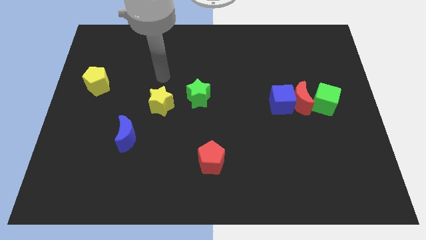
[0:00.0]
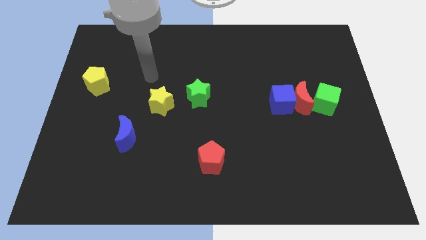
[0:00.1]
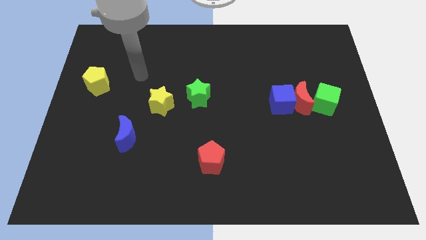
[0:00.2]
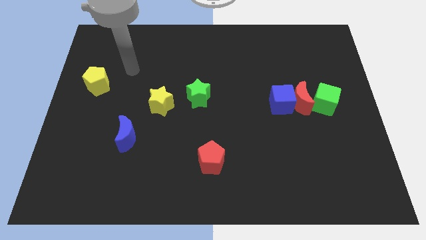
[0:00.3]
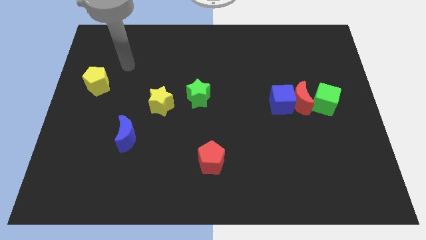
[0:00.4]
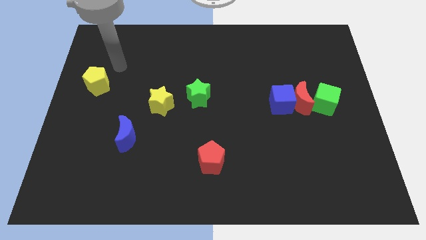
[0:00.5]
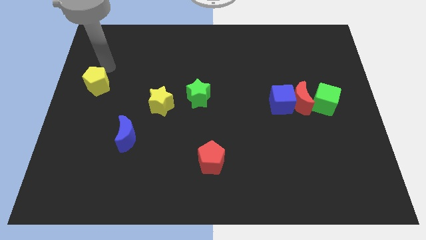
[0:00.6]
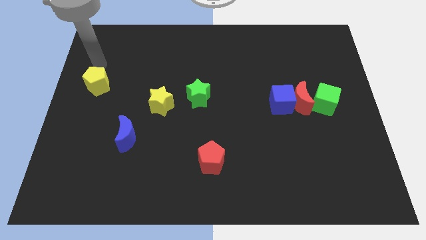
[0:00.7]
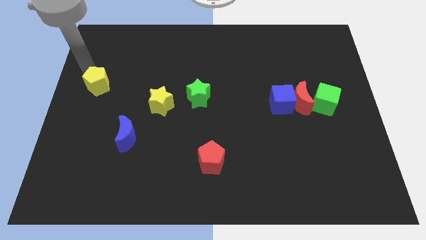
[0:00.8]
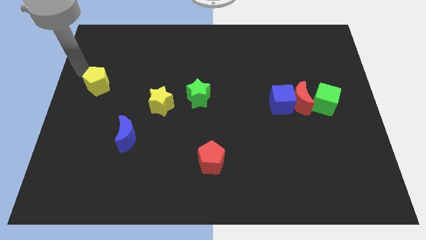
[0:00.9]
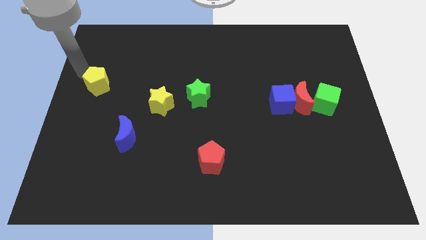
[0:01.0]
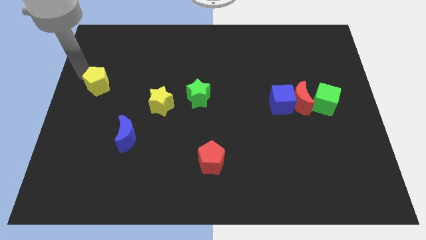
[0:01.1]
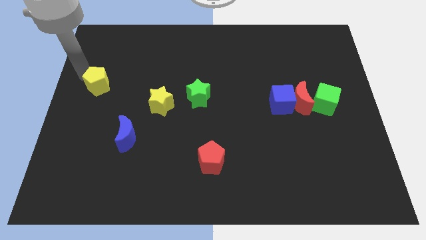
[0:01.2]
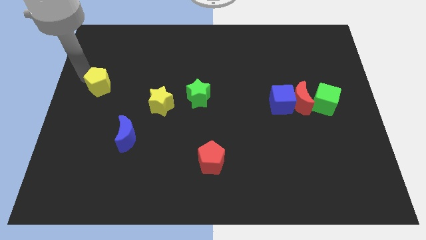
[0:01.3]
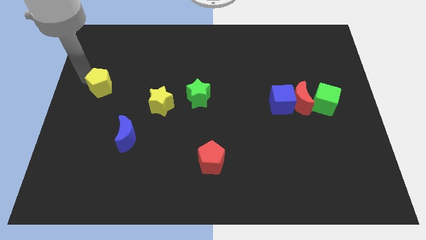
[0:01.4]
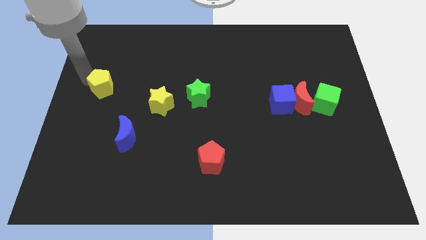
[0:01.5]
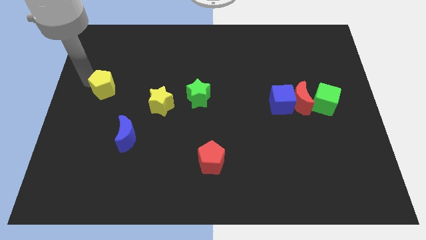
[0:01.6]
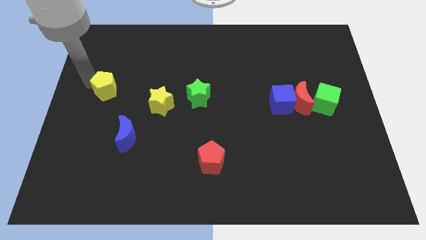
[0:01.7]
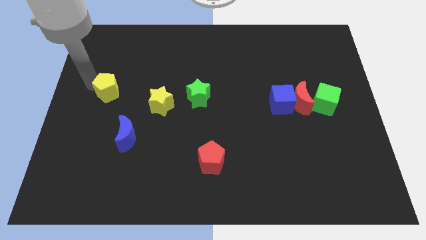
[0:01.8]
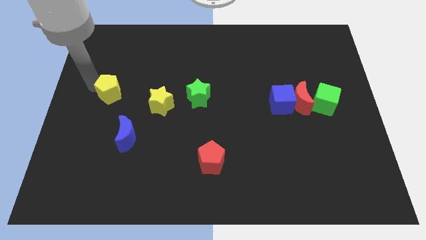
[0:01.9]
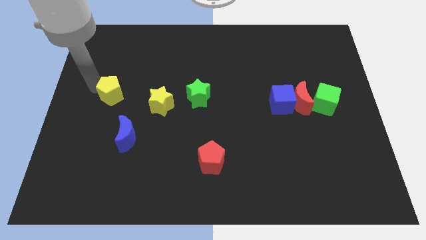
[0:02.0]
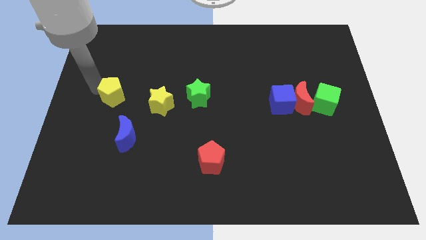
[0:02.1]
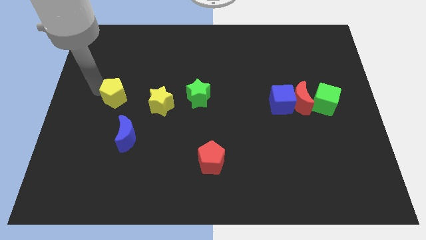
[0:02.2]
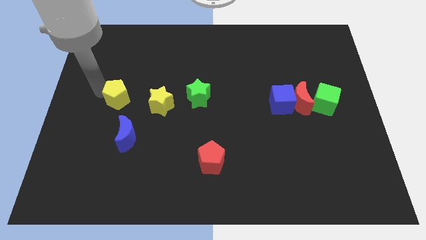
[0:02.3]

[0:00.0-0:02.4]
slide the yellow pentagon a little bit downwards and right diagonally

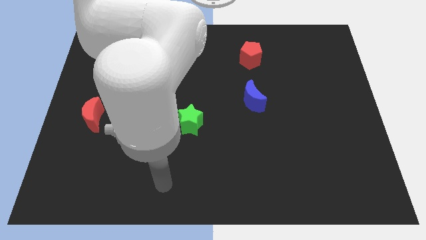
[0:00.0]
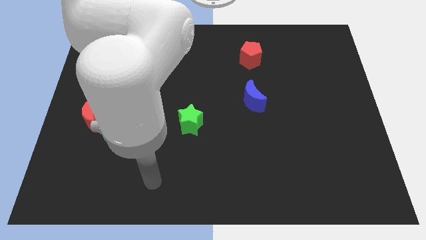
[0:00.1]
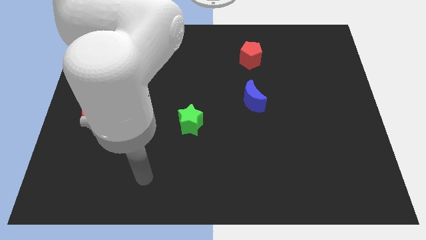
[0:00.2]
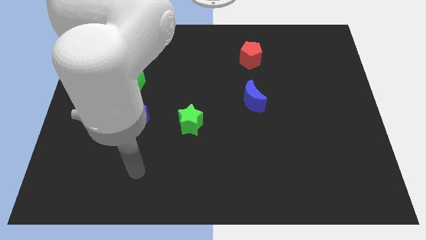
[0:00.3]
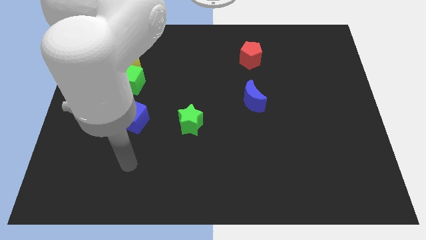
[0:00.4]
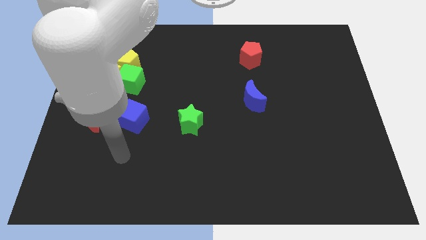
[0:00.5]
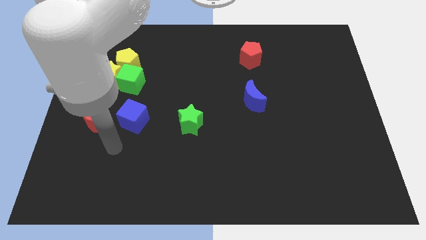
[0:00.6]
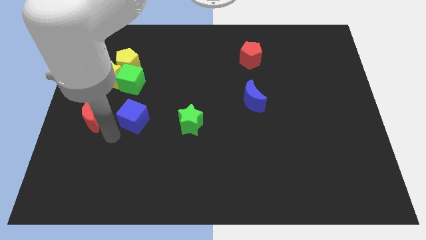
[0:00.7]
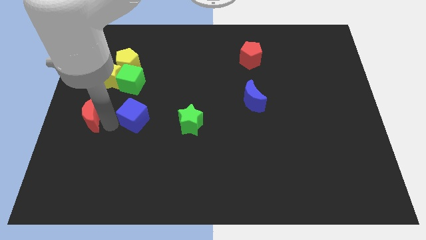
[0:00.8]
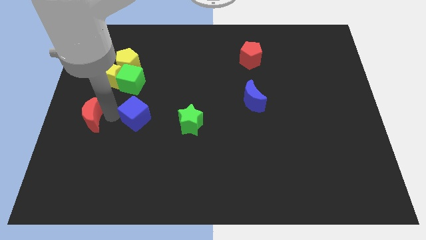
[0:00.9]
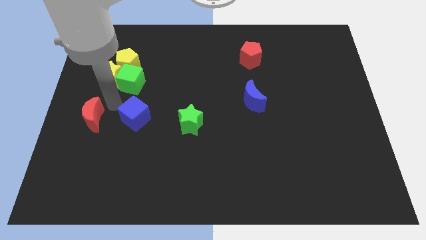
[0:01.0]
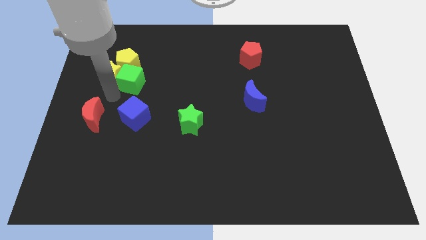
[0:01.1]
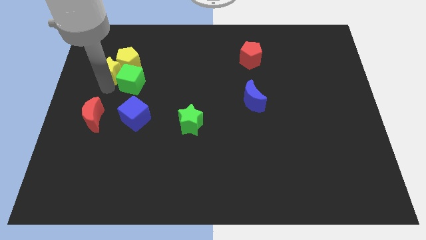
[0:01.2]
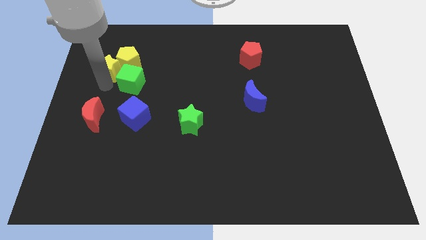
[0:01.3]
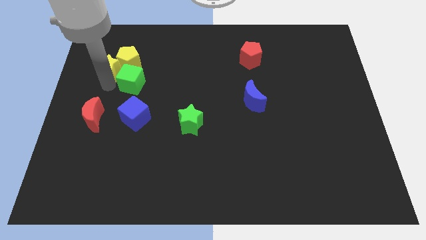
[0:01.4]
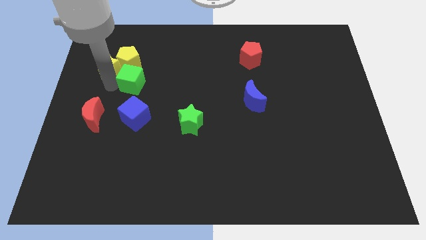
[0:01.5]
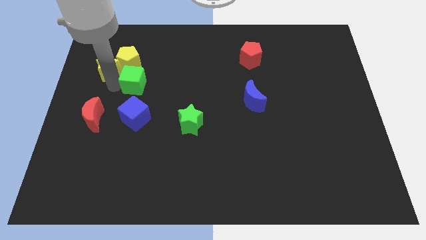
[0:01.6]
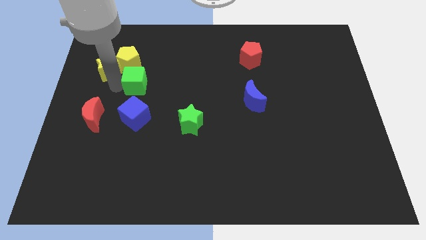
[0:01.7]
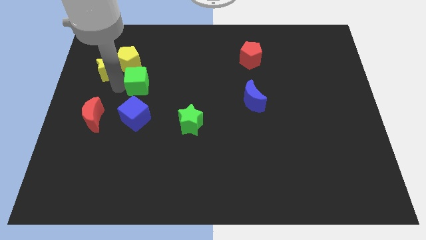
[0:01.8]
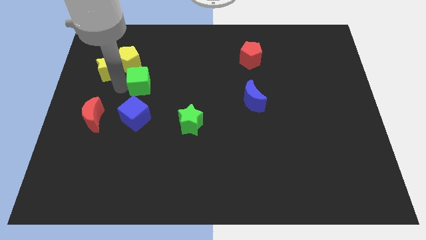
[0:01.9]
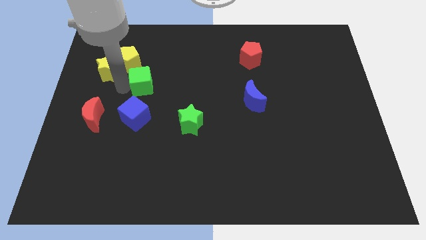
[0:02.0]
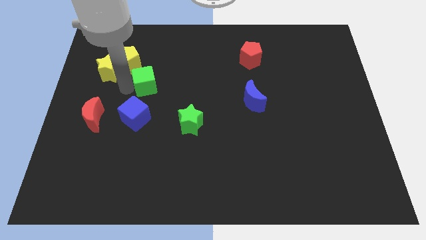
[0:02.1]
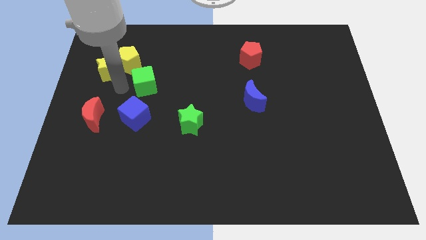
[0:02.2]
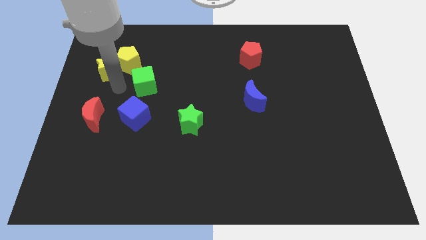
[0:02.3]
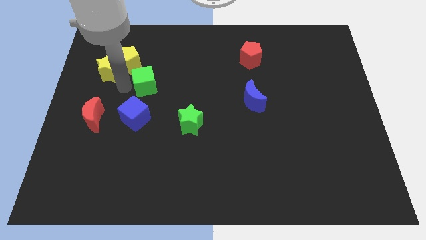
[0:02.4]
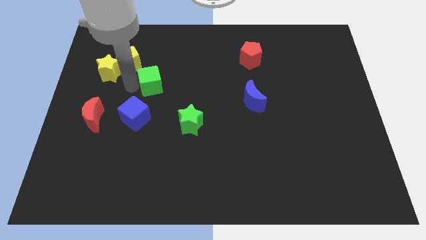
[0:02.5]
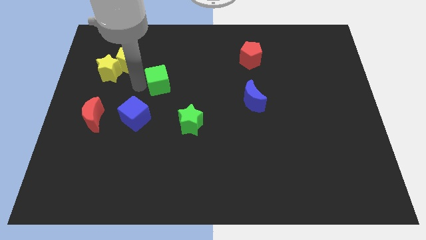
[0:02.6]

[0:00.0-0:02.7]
slightly slide the green cube right

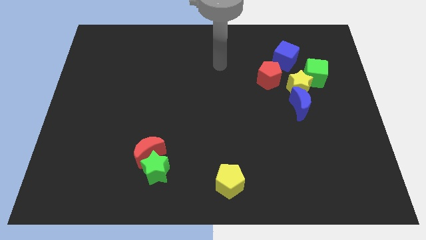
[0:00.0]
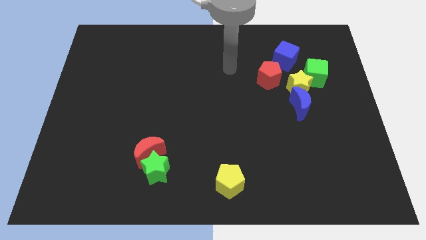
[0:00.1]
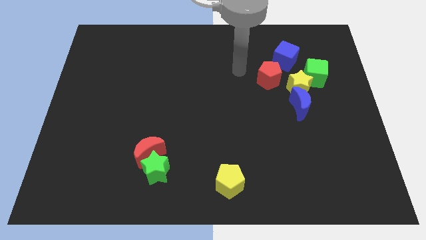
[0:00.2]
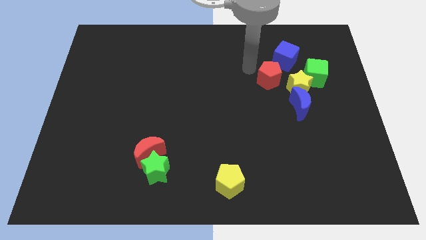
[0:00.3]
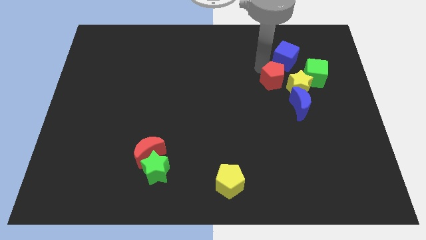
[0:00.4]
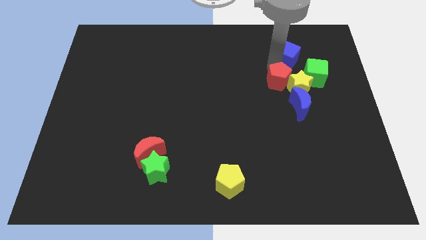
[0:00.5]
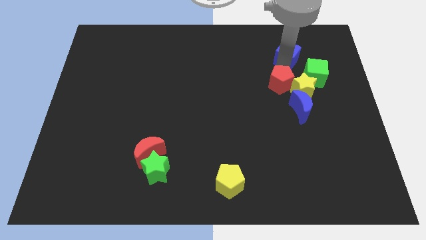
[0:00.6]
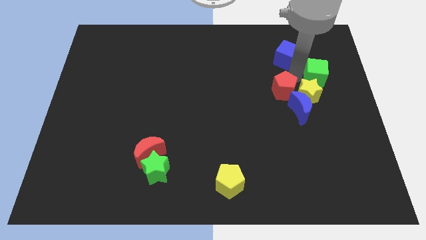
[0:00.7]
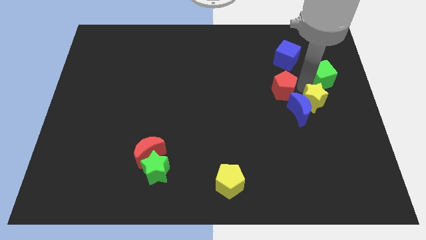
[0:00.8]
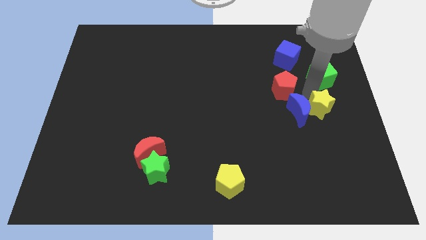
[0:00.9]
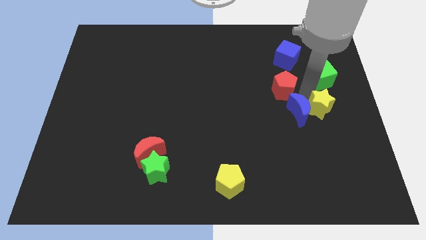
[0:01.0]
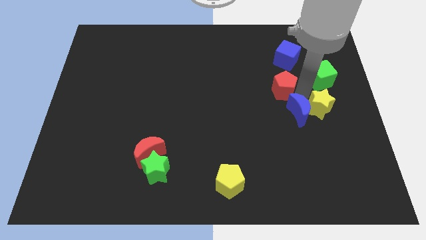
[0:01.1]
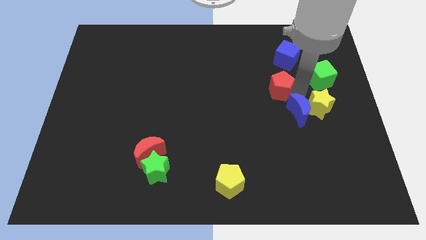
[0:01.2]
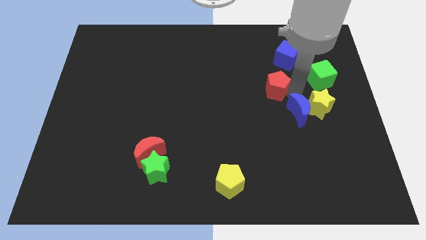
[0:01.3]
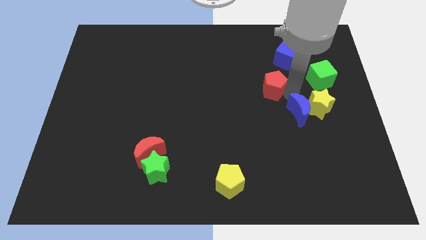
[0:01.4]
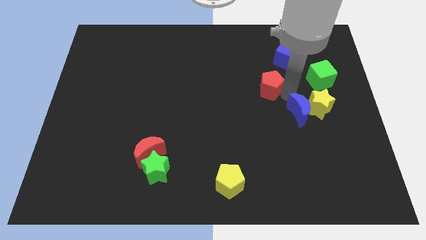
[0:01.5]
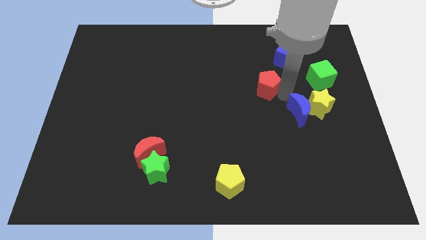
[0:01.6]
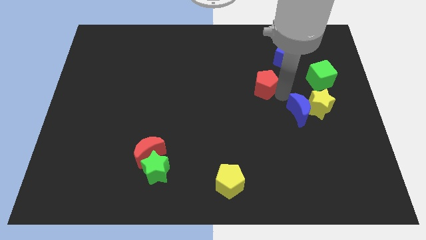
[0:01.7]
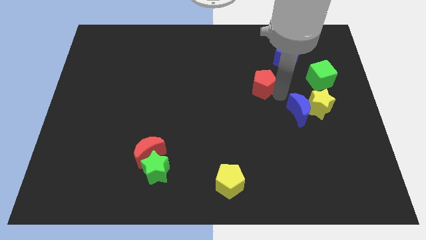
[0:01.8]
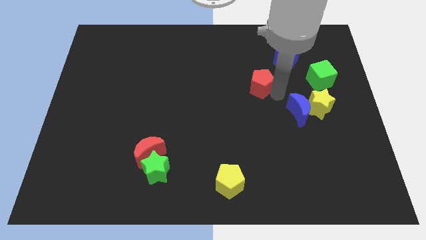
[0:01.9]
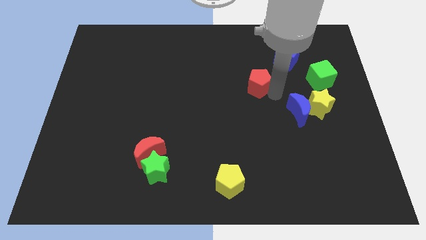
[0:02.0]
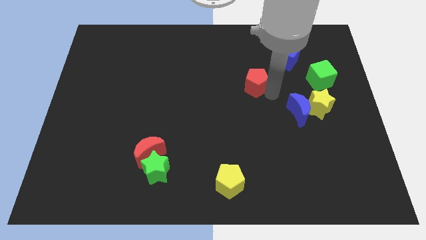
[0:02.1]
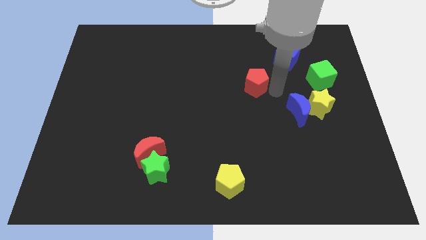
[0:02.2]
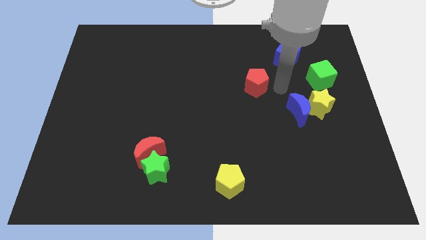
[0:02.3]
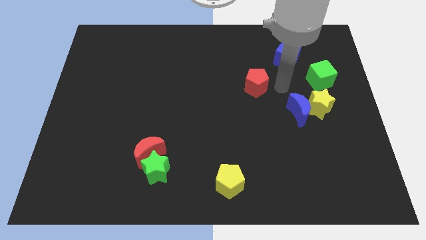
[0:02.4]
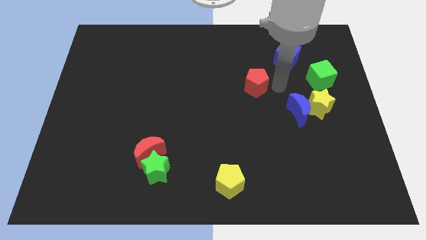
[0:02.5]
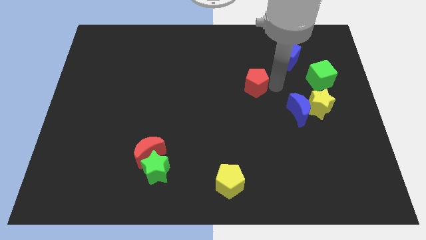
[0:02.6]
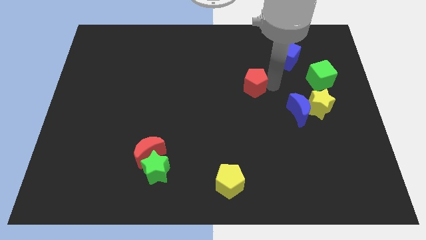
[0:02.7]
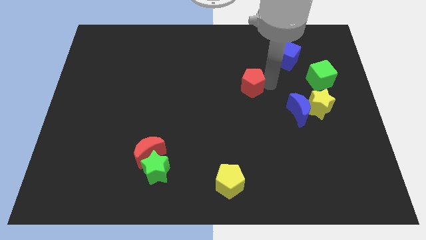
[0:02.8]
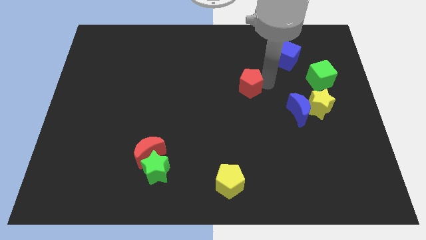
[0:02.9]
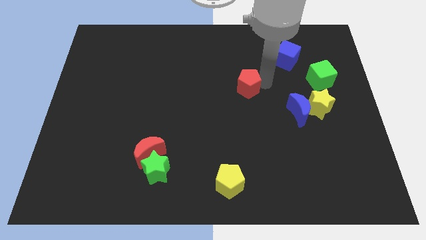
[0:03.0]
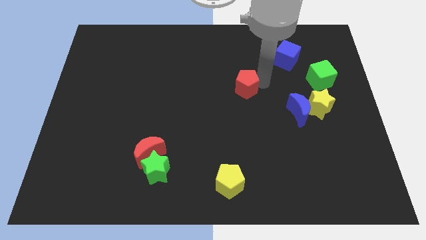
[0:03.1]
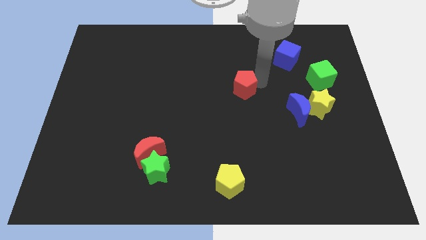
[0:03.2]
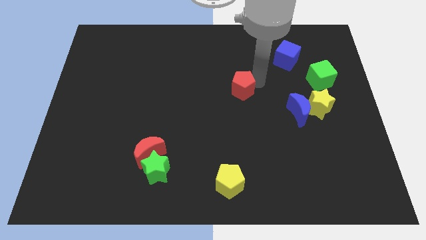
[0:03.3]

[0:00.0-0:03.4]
push the red pentagon a bit to the left
